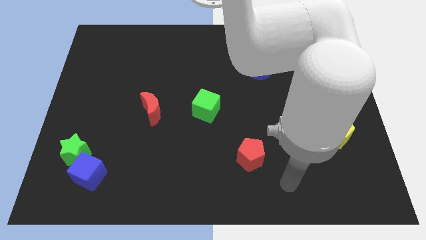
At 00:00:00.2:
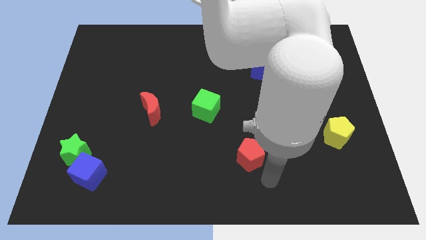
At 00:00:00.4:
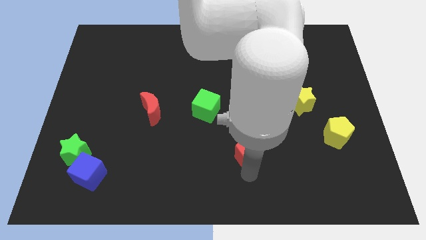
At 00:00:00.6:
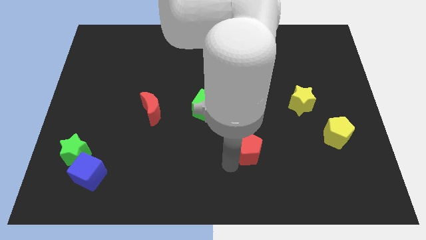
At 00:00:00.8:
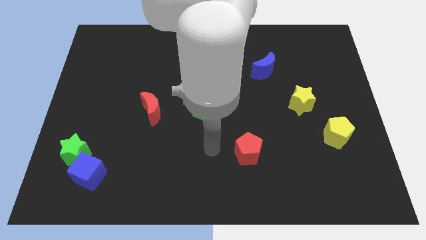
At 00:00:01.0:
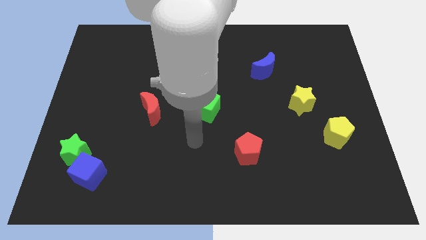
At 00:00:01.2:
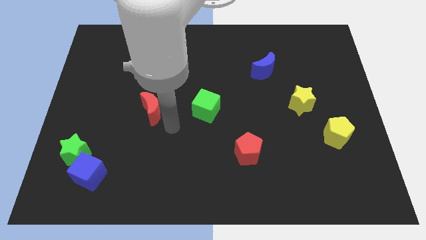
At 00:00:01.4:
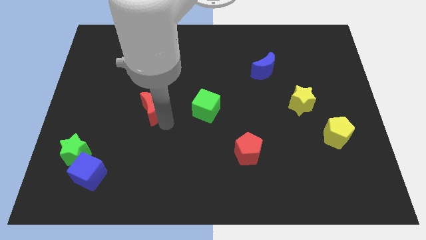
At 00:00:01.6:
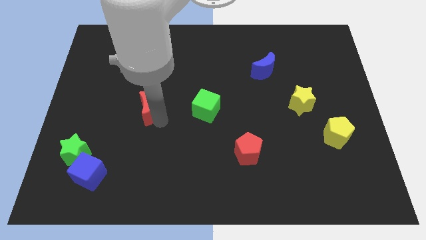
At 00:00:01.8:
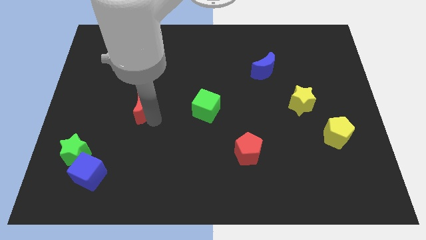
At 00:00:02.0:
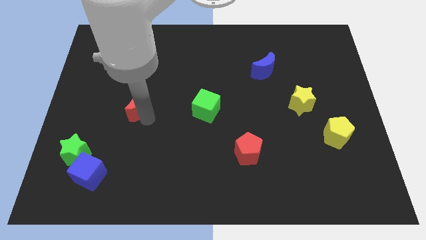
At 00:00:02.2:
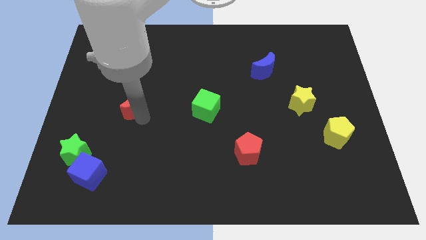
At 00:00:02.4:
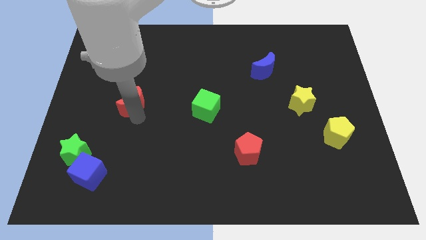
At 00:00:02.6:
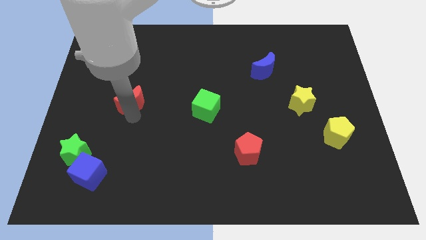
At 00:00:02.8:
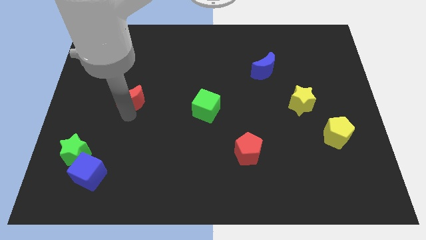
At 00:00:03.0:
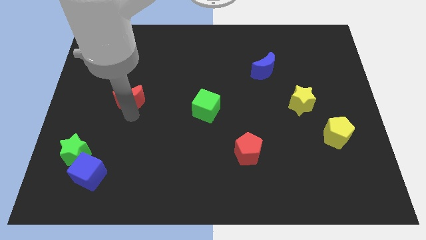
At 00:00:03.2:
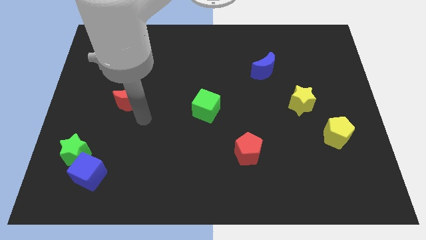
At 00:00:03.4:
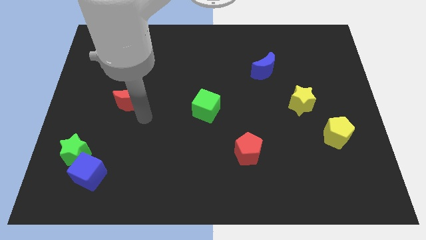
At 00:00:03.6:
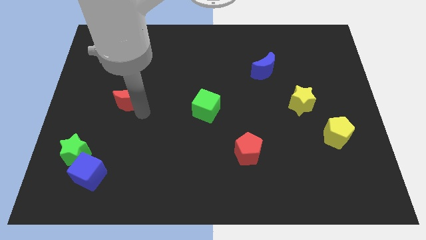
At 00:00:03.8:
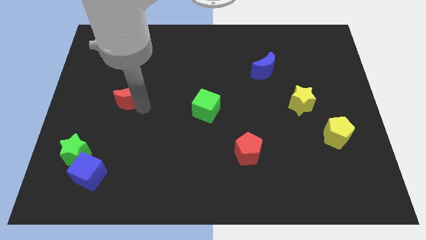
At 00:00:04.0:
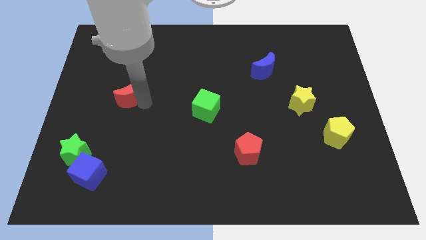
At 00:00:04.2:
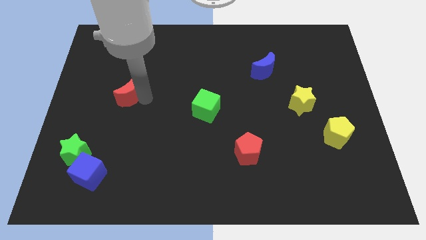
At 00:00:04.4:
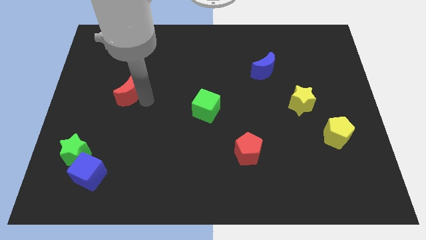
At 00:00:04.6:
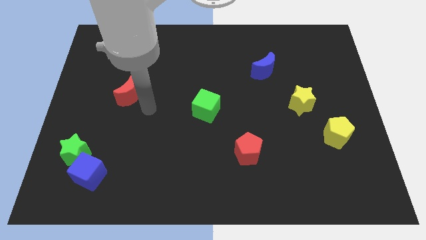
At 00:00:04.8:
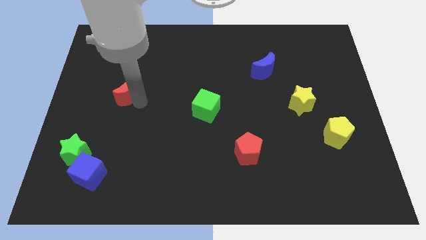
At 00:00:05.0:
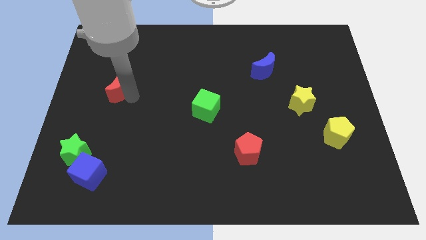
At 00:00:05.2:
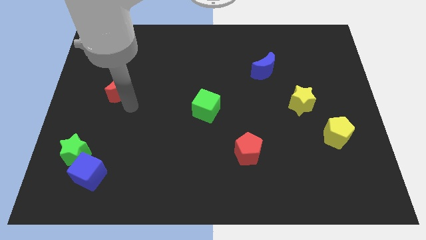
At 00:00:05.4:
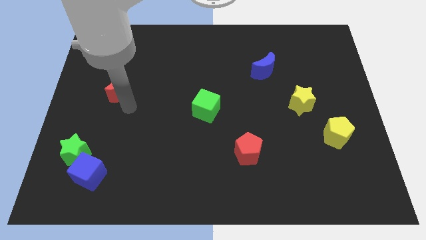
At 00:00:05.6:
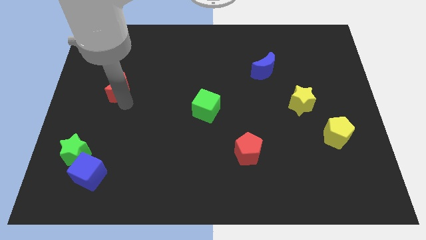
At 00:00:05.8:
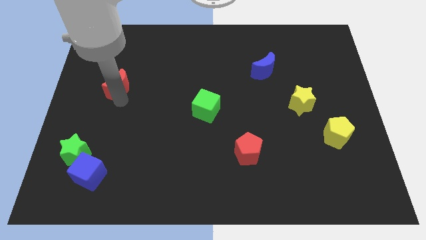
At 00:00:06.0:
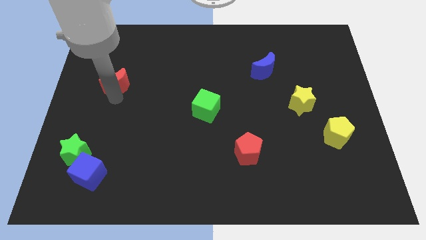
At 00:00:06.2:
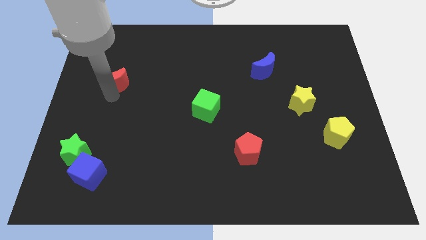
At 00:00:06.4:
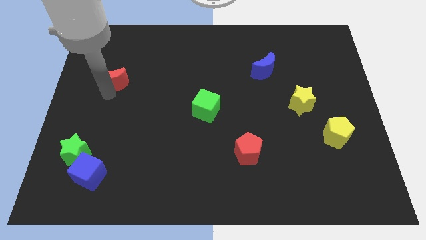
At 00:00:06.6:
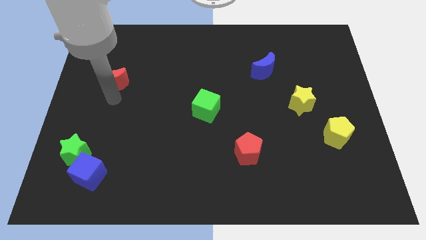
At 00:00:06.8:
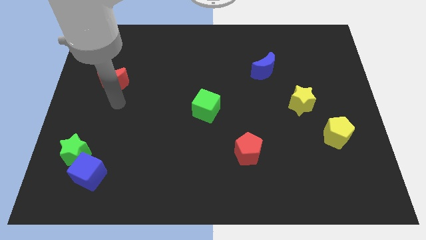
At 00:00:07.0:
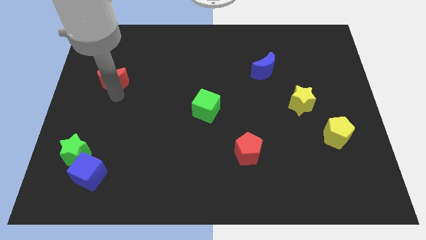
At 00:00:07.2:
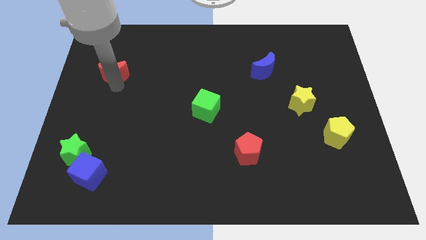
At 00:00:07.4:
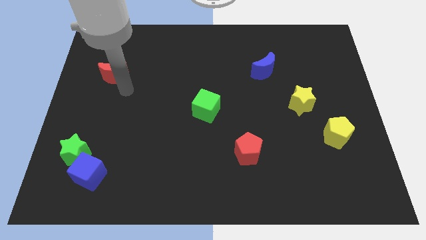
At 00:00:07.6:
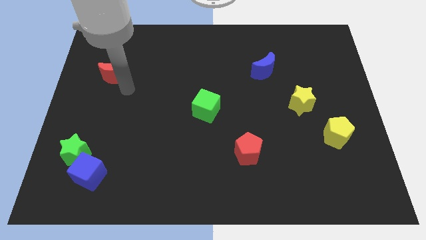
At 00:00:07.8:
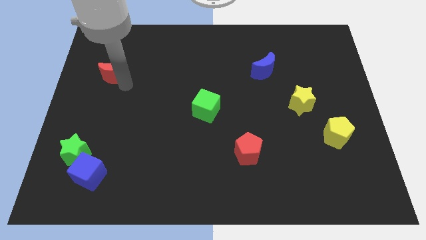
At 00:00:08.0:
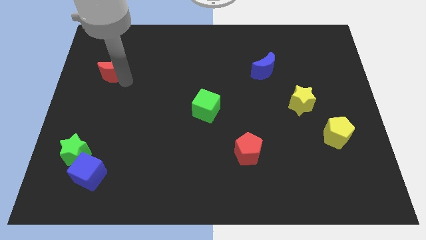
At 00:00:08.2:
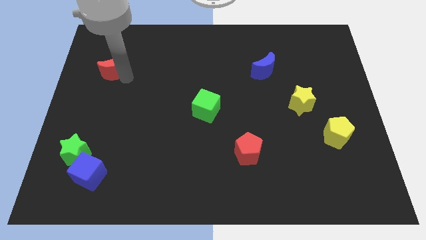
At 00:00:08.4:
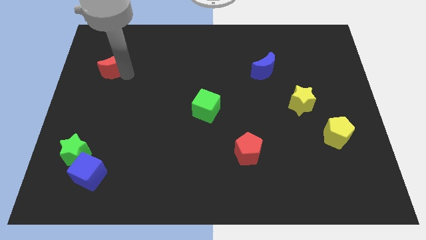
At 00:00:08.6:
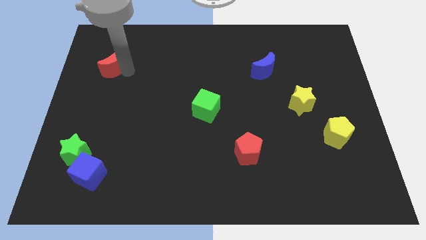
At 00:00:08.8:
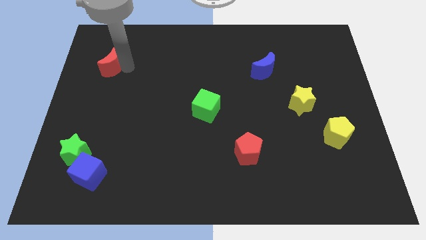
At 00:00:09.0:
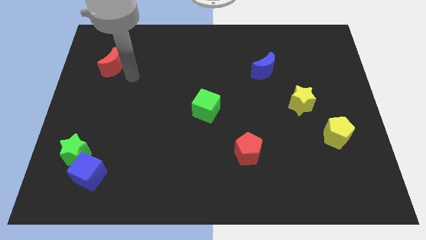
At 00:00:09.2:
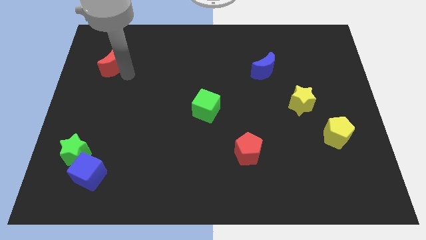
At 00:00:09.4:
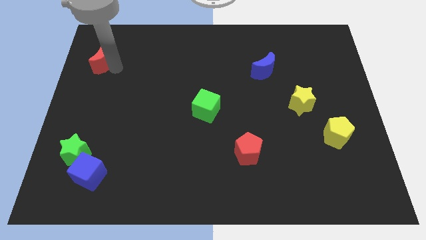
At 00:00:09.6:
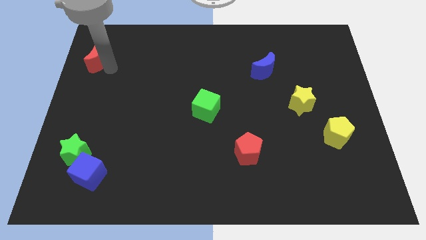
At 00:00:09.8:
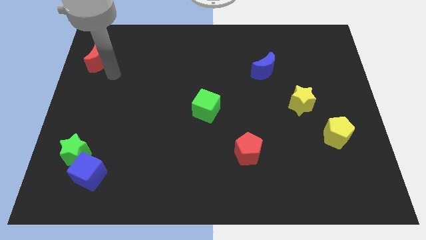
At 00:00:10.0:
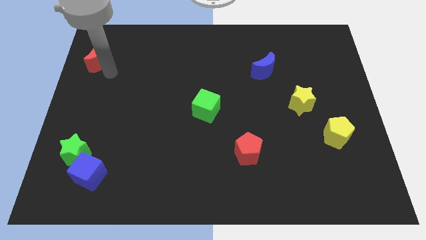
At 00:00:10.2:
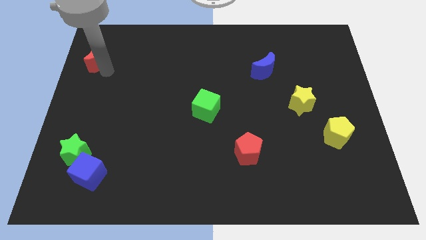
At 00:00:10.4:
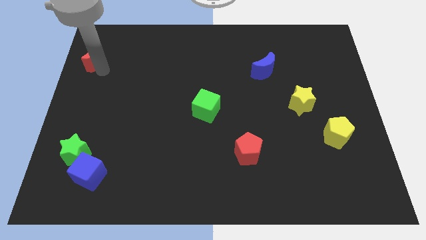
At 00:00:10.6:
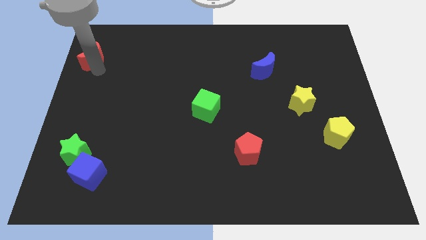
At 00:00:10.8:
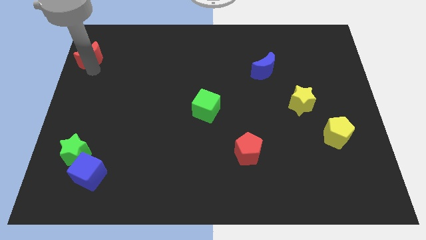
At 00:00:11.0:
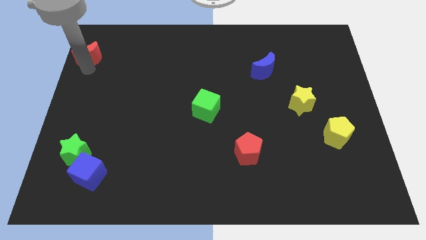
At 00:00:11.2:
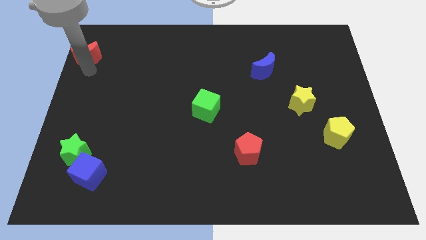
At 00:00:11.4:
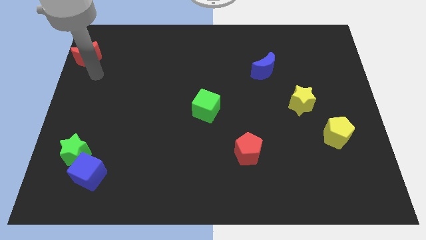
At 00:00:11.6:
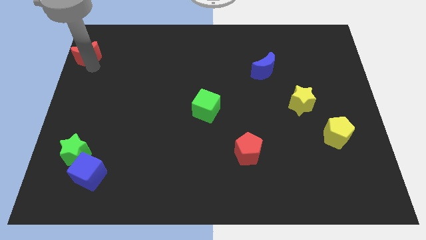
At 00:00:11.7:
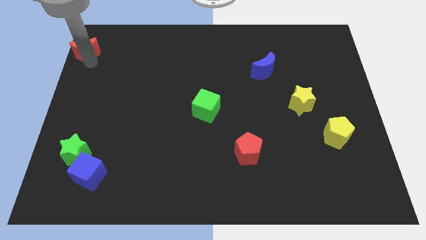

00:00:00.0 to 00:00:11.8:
move the red moon to the top left

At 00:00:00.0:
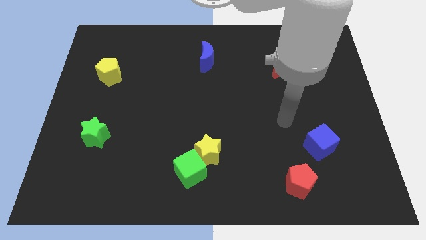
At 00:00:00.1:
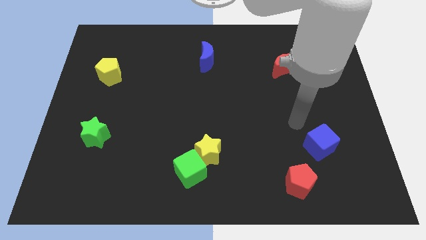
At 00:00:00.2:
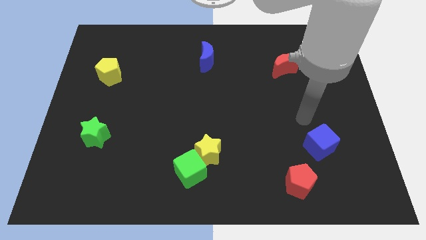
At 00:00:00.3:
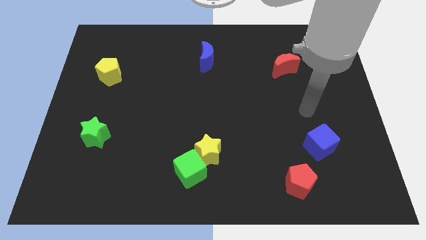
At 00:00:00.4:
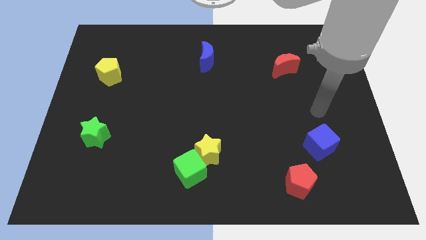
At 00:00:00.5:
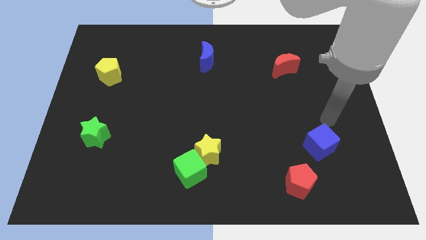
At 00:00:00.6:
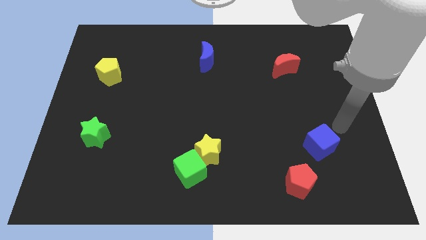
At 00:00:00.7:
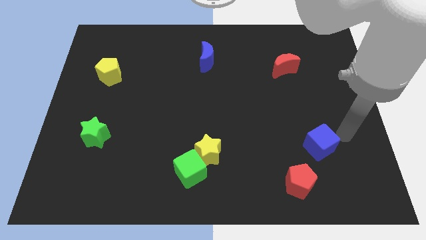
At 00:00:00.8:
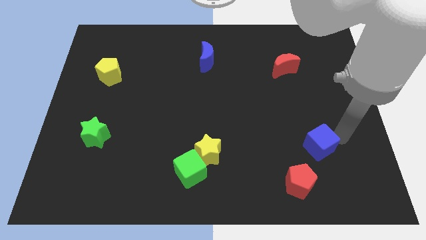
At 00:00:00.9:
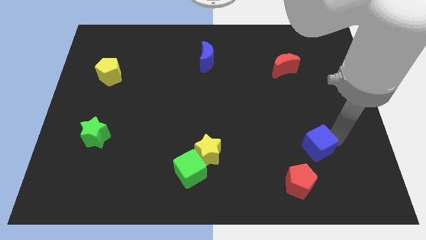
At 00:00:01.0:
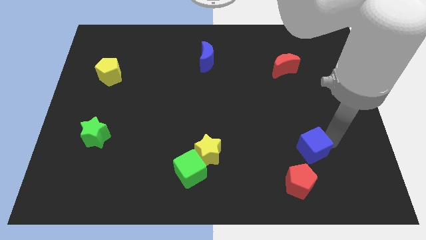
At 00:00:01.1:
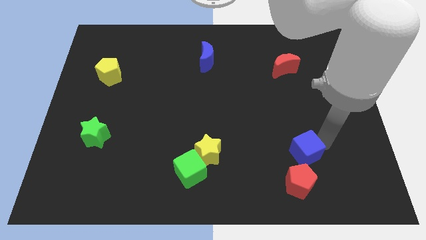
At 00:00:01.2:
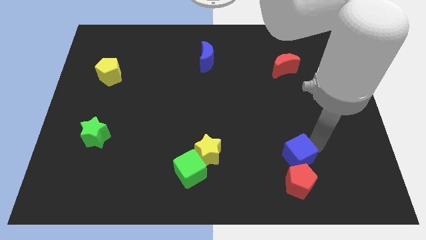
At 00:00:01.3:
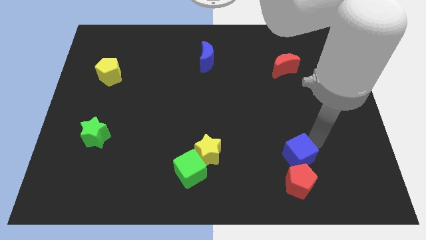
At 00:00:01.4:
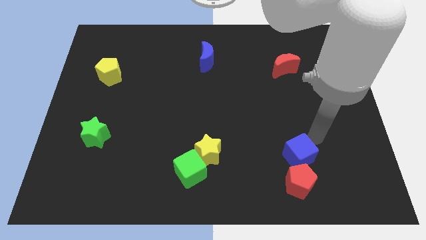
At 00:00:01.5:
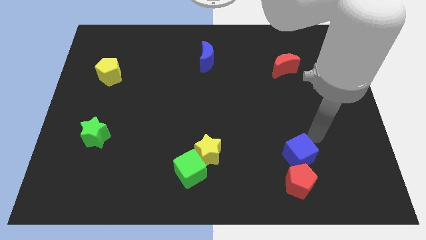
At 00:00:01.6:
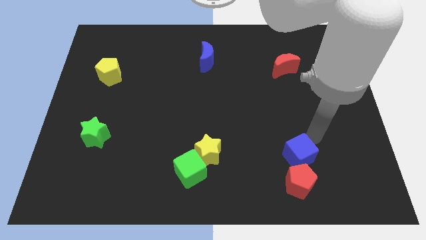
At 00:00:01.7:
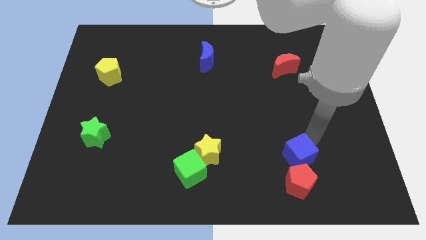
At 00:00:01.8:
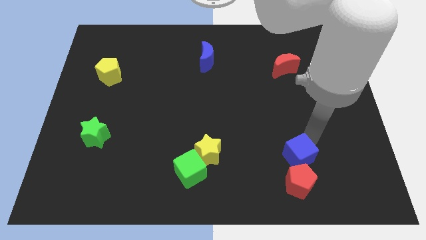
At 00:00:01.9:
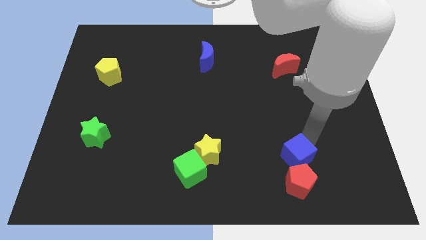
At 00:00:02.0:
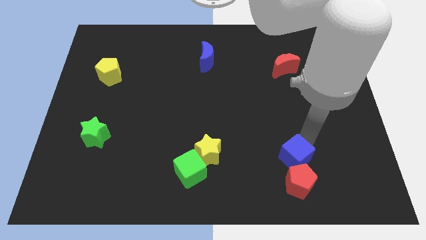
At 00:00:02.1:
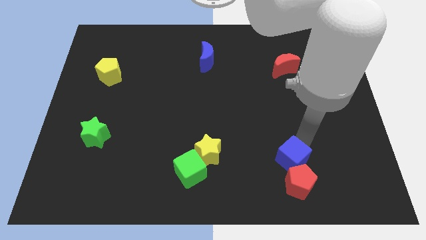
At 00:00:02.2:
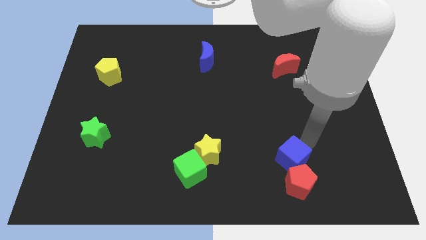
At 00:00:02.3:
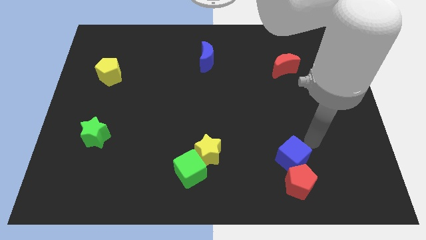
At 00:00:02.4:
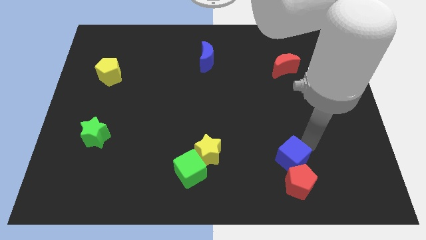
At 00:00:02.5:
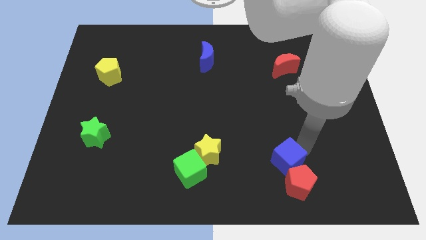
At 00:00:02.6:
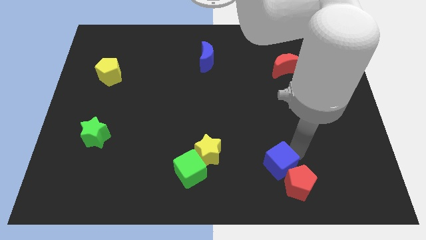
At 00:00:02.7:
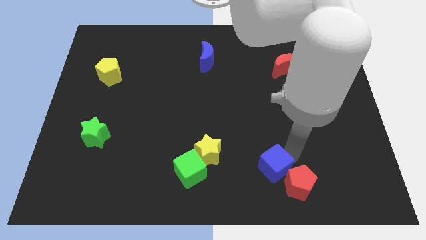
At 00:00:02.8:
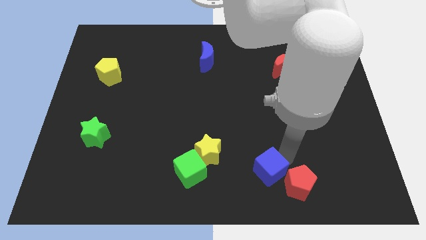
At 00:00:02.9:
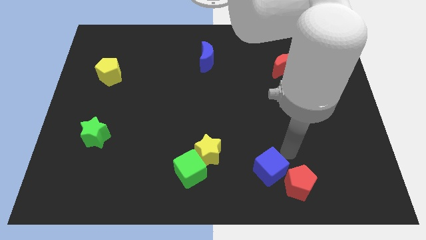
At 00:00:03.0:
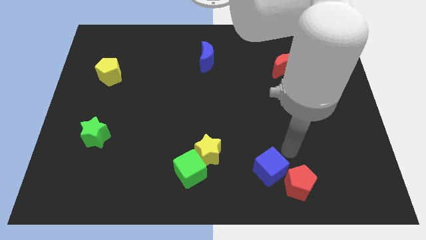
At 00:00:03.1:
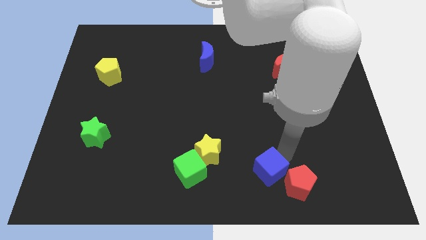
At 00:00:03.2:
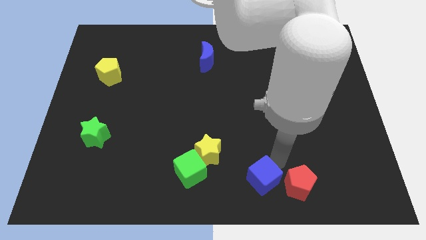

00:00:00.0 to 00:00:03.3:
slide the blue cube to the bottom
